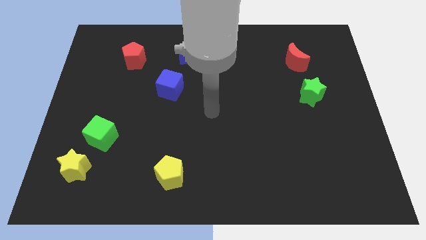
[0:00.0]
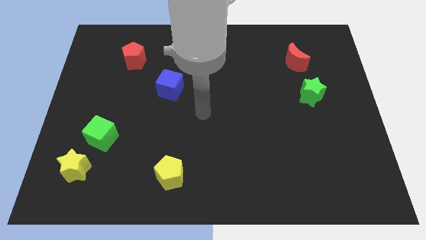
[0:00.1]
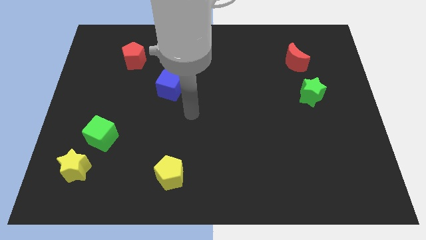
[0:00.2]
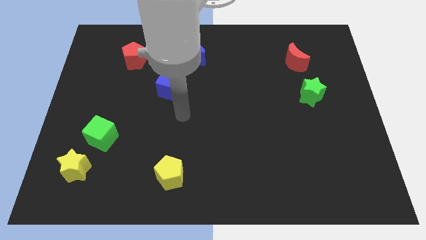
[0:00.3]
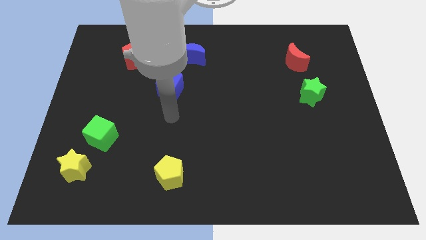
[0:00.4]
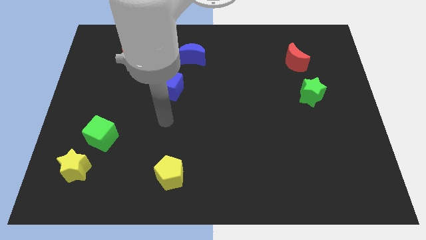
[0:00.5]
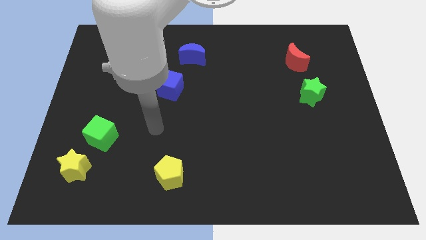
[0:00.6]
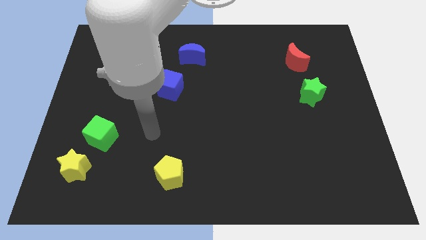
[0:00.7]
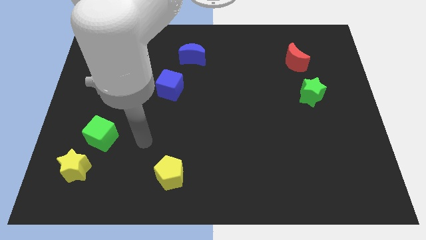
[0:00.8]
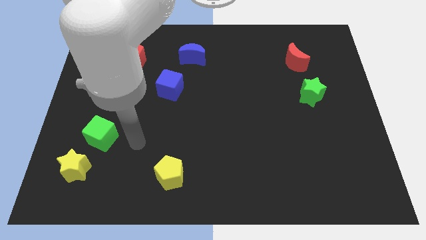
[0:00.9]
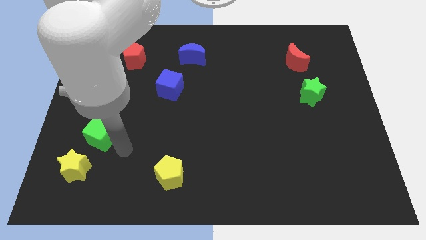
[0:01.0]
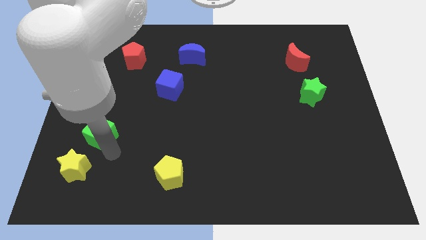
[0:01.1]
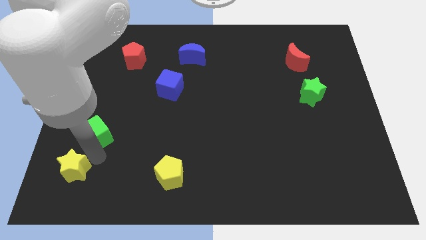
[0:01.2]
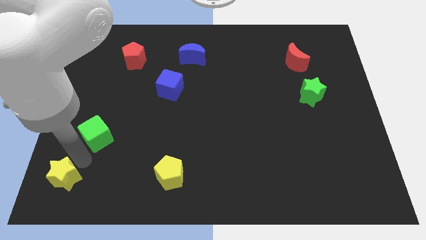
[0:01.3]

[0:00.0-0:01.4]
separate the green cube from the yellow star

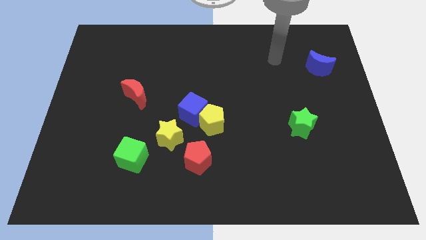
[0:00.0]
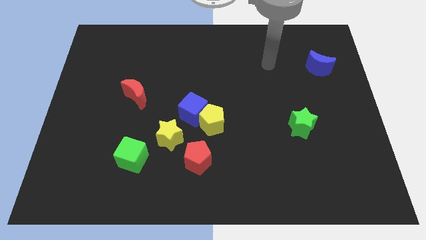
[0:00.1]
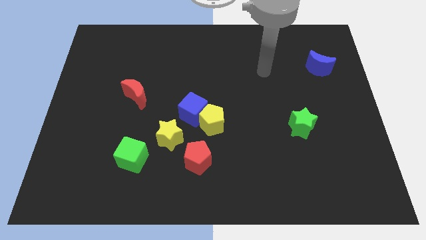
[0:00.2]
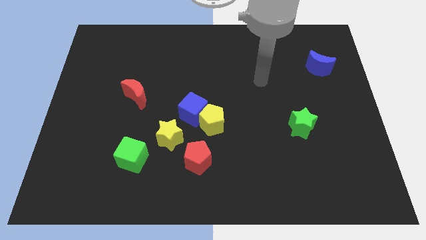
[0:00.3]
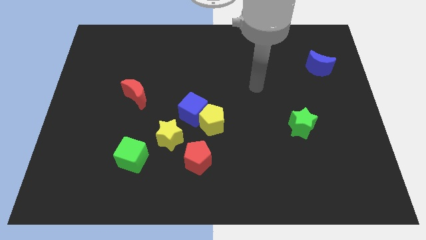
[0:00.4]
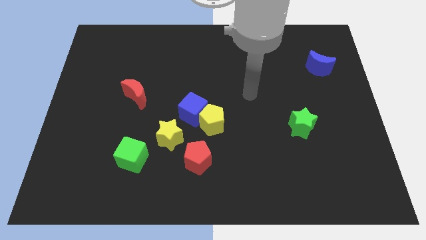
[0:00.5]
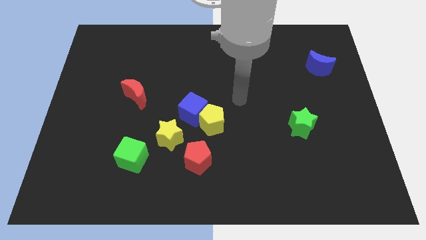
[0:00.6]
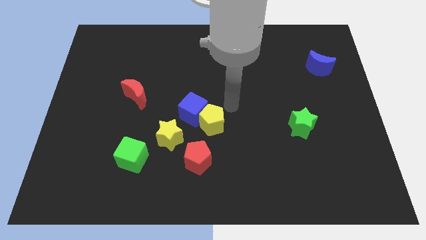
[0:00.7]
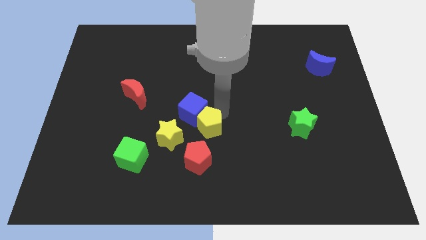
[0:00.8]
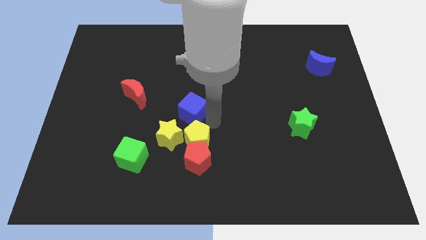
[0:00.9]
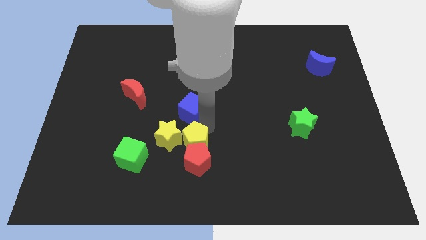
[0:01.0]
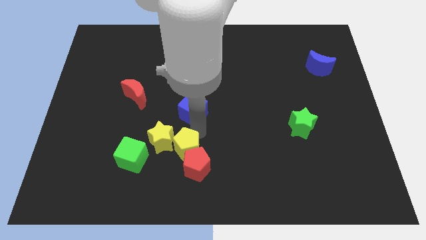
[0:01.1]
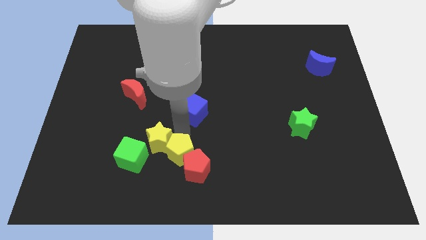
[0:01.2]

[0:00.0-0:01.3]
pull the blue cube apart from the yellow pentagon and yellow star

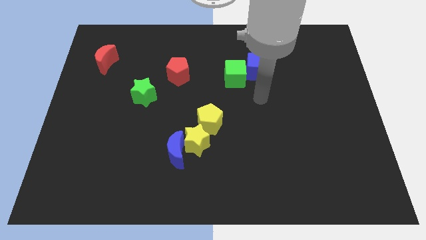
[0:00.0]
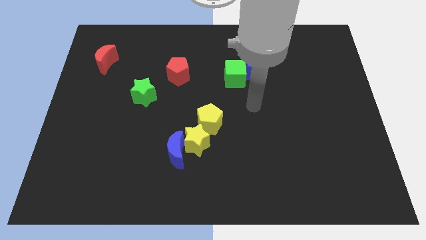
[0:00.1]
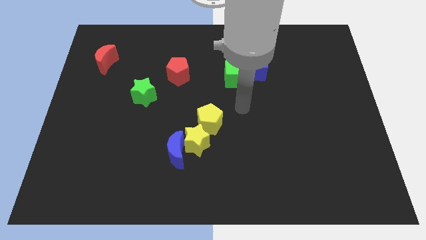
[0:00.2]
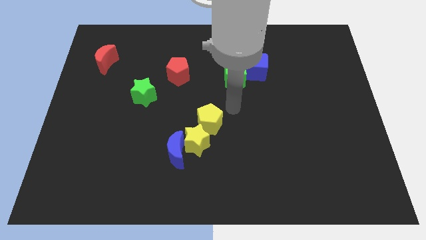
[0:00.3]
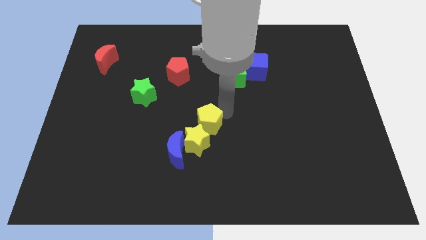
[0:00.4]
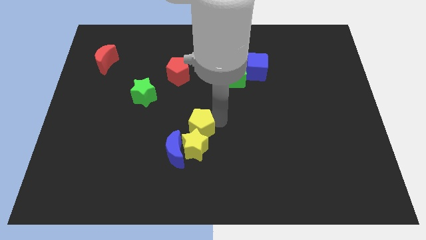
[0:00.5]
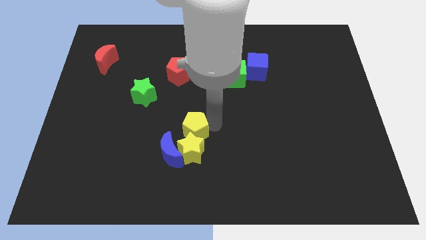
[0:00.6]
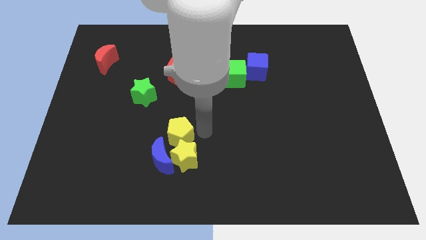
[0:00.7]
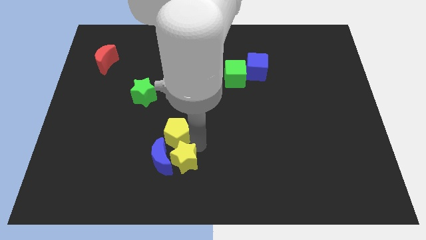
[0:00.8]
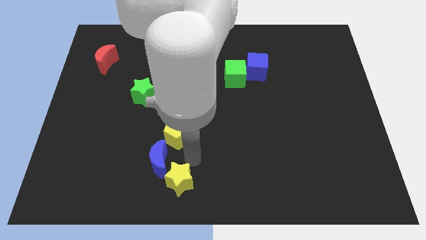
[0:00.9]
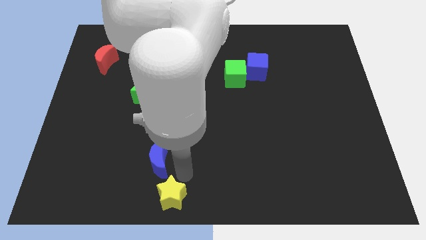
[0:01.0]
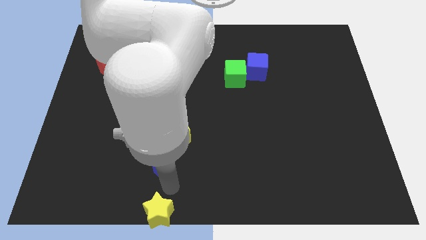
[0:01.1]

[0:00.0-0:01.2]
separate the blue moon from the yellow star

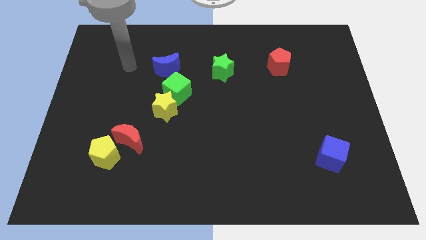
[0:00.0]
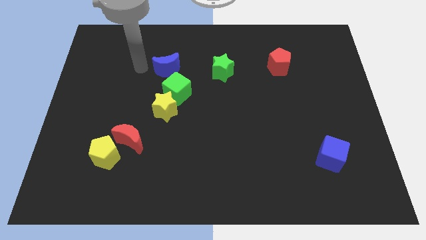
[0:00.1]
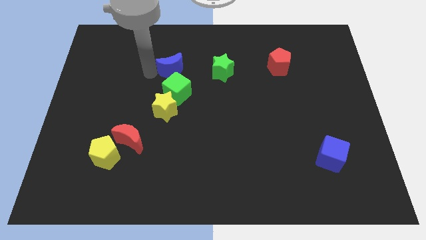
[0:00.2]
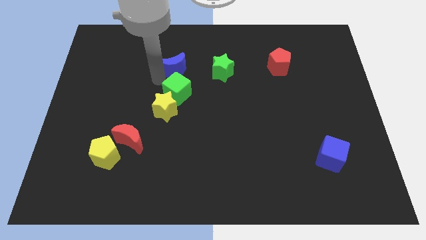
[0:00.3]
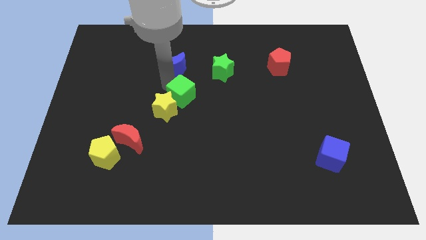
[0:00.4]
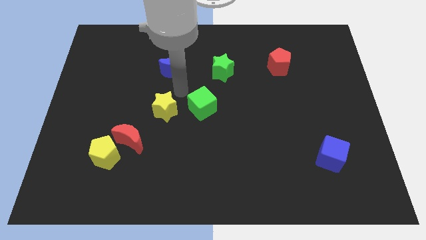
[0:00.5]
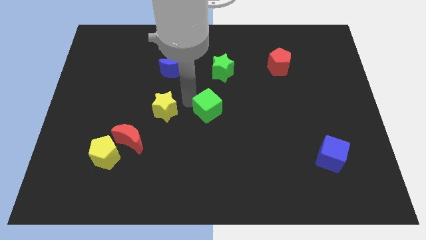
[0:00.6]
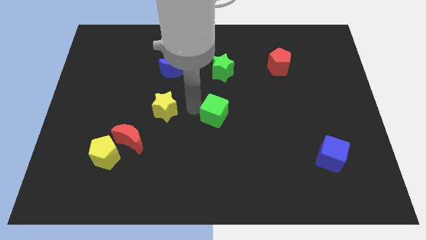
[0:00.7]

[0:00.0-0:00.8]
pull the yellow star apart from the green cube

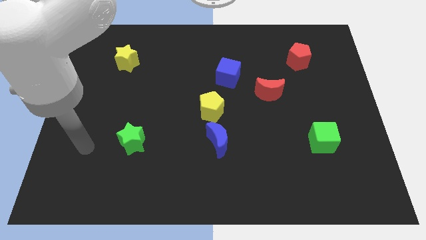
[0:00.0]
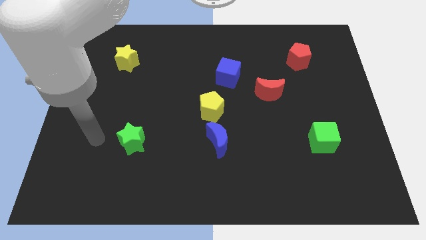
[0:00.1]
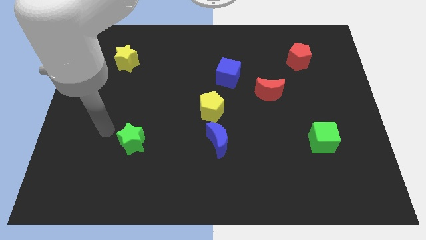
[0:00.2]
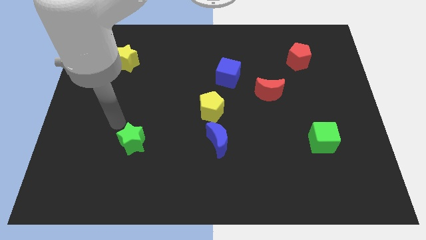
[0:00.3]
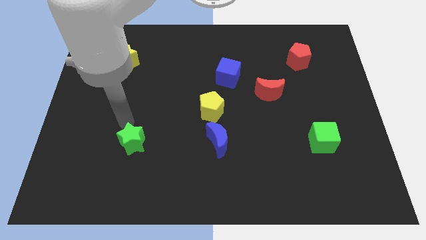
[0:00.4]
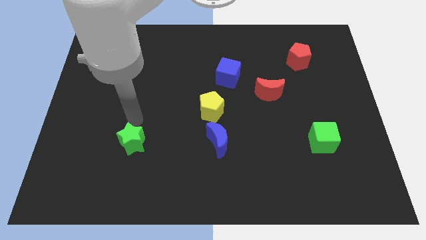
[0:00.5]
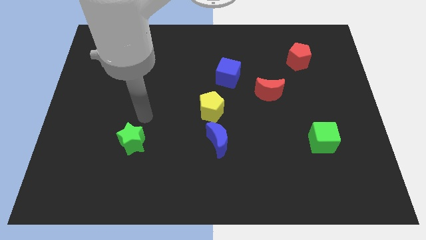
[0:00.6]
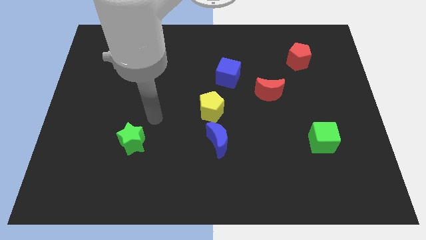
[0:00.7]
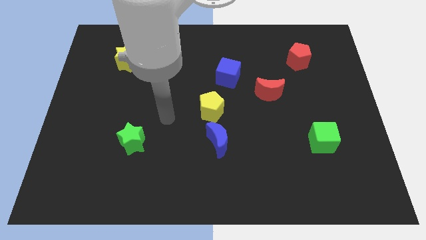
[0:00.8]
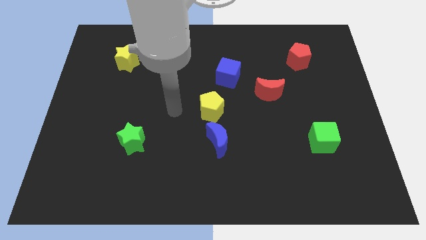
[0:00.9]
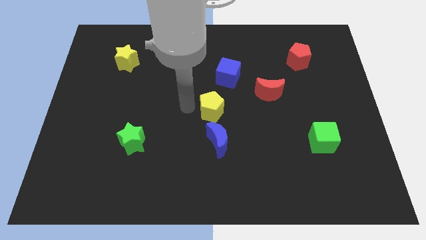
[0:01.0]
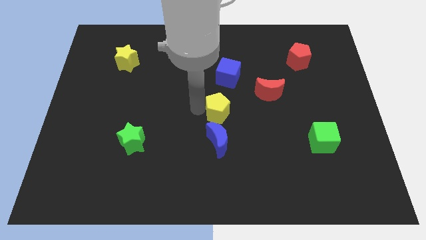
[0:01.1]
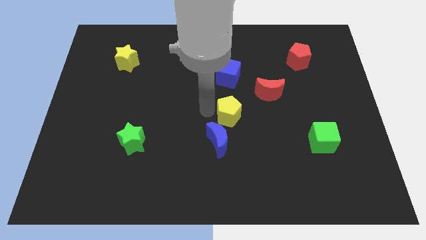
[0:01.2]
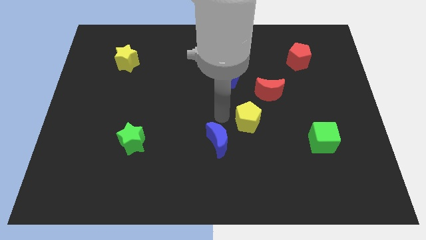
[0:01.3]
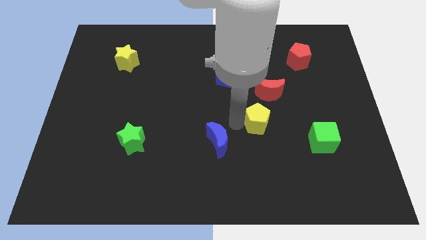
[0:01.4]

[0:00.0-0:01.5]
move the blue moon away from the yellow pentagon

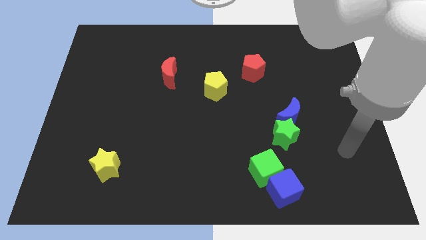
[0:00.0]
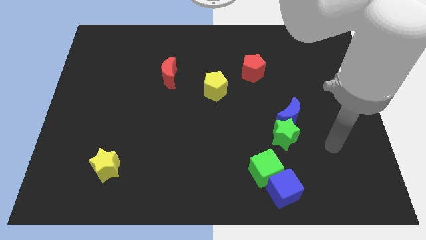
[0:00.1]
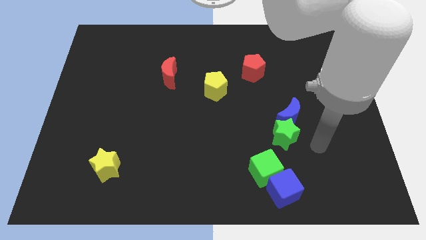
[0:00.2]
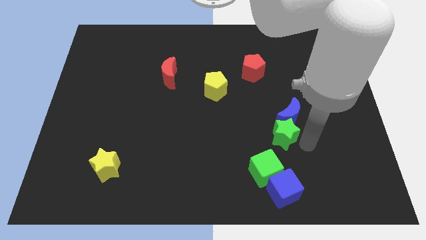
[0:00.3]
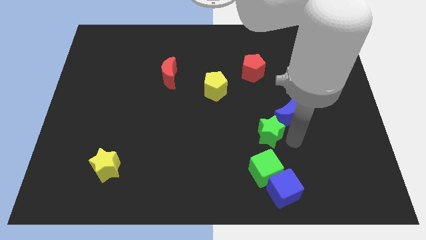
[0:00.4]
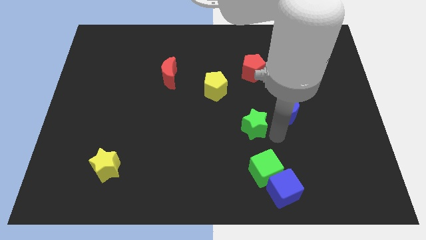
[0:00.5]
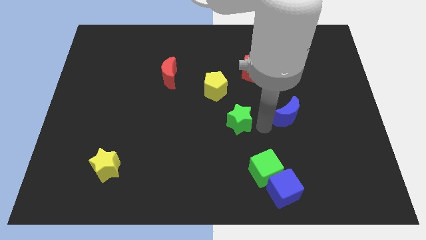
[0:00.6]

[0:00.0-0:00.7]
separate the blue moon from the green star

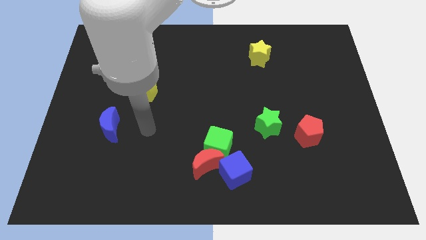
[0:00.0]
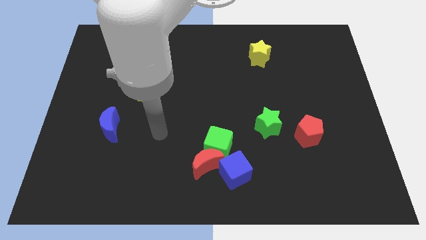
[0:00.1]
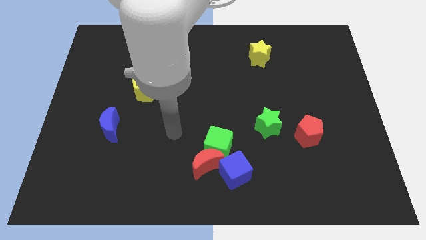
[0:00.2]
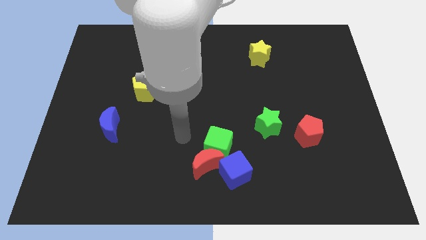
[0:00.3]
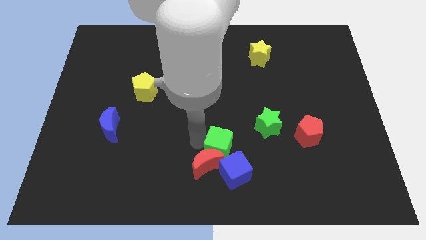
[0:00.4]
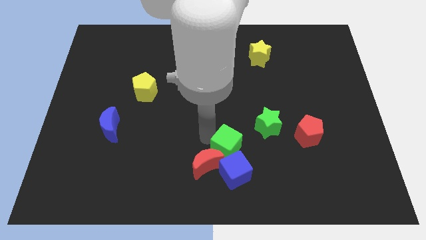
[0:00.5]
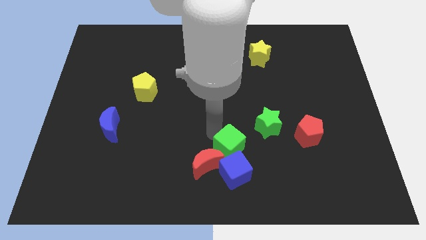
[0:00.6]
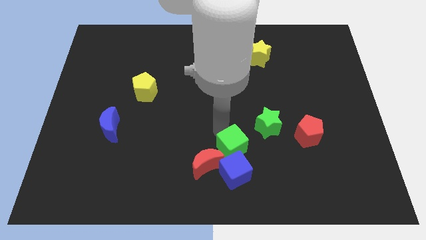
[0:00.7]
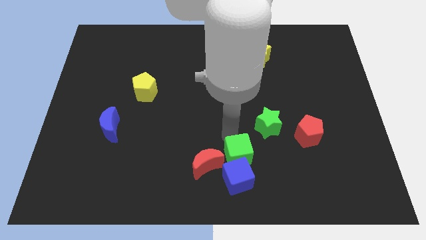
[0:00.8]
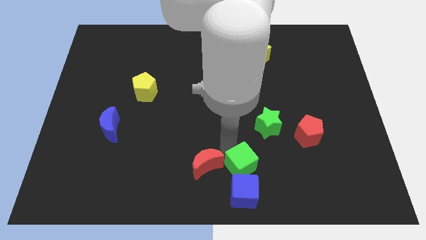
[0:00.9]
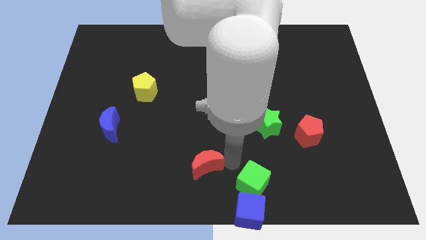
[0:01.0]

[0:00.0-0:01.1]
separate the red moon from the green cube and blue cube

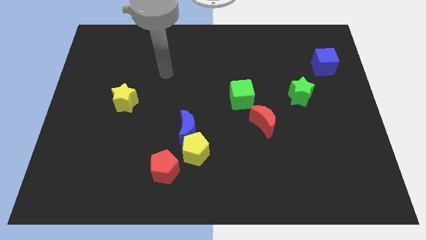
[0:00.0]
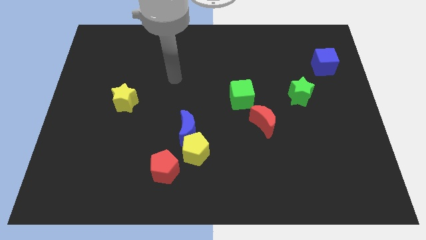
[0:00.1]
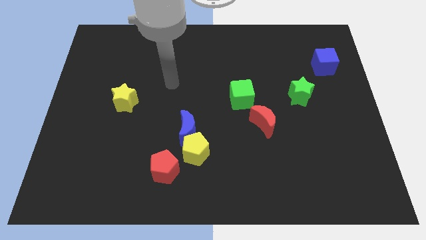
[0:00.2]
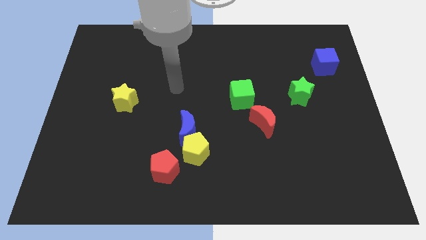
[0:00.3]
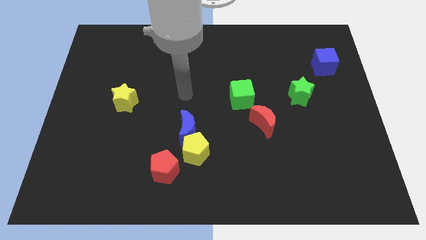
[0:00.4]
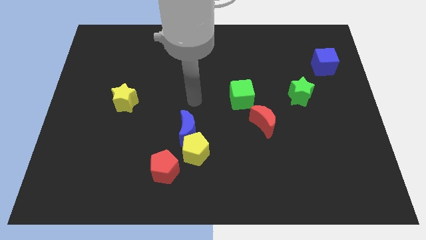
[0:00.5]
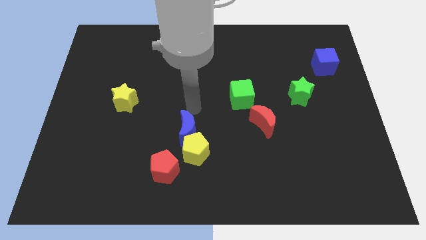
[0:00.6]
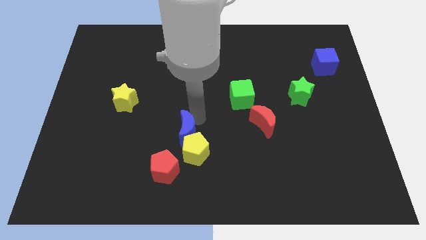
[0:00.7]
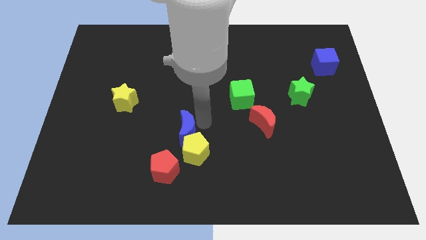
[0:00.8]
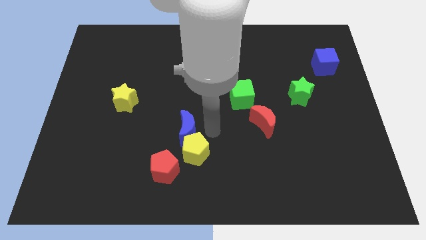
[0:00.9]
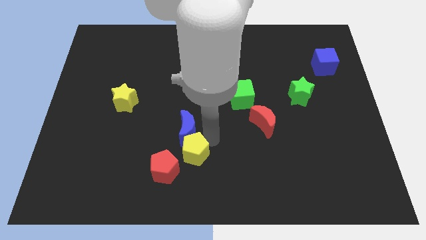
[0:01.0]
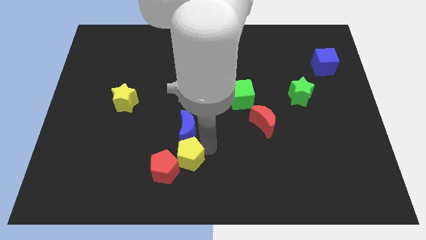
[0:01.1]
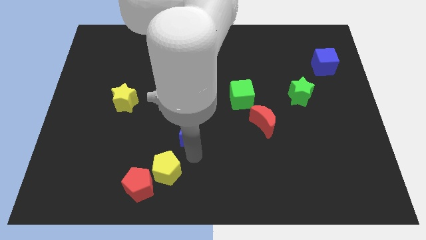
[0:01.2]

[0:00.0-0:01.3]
pull the blue moon apart from the yellow pentagon
